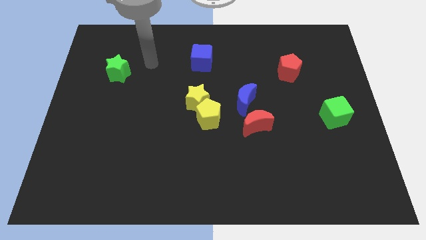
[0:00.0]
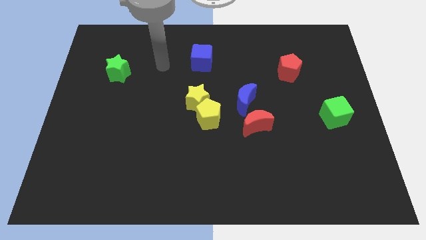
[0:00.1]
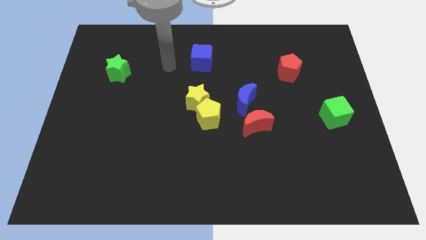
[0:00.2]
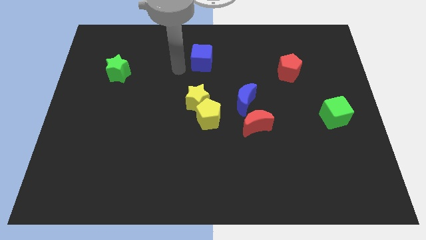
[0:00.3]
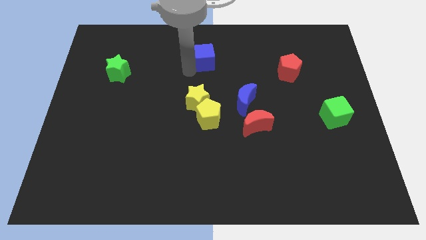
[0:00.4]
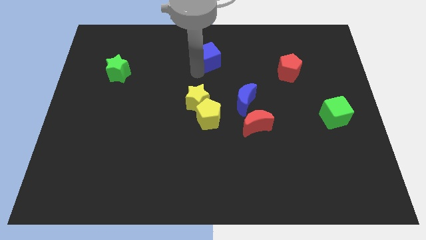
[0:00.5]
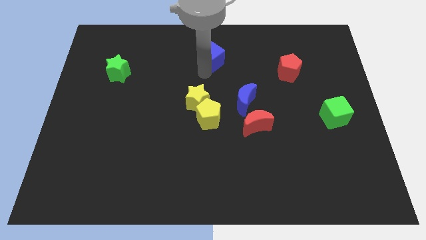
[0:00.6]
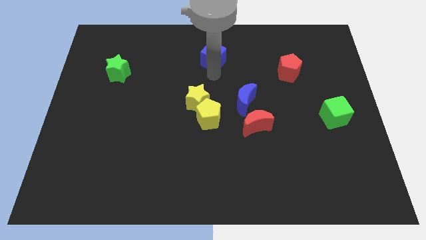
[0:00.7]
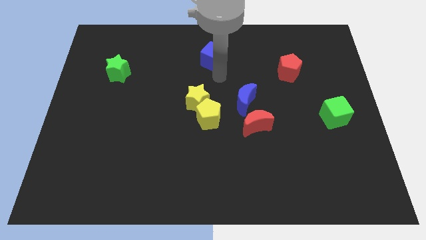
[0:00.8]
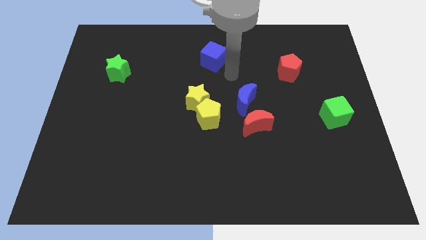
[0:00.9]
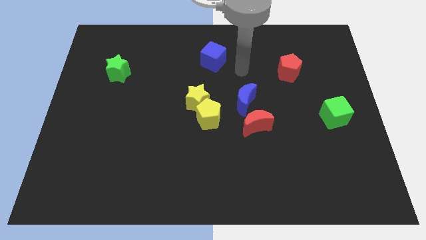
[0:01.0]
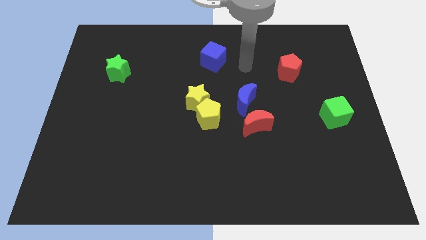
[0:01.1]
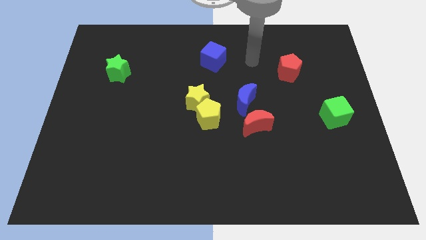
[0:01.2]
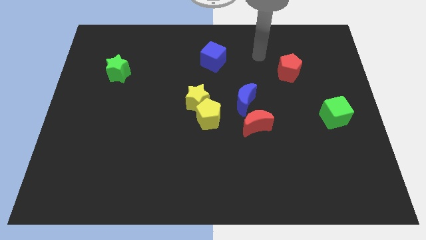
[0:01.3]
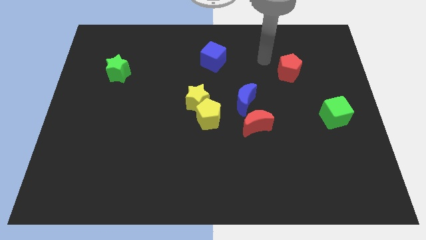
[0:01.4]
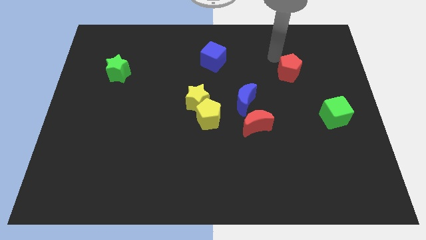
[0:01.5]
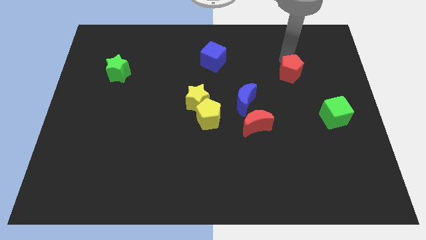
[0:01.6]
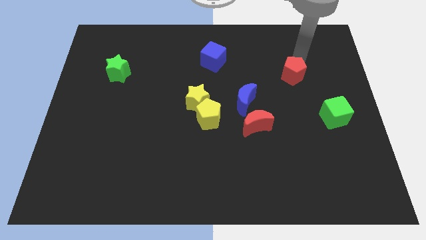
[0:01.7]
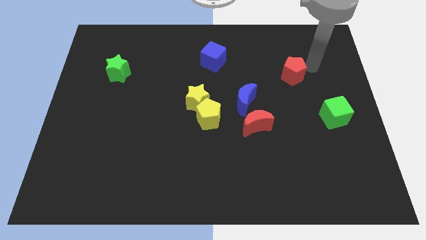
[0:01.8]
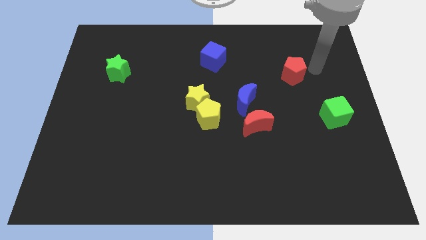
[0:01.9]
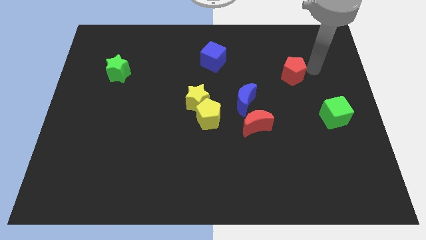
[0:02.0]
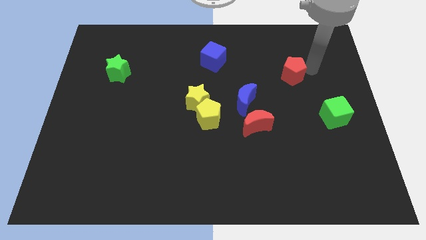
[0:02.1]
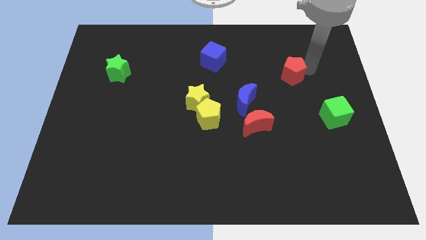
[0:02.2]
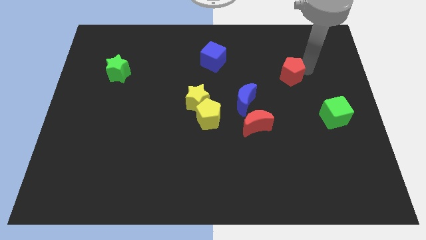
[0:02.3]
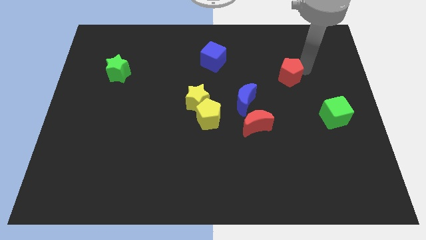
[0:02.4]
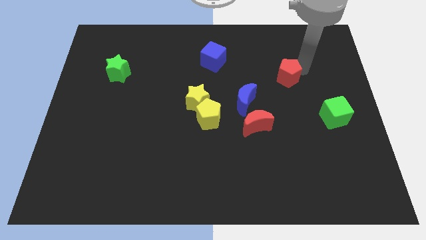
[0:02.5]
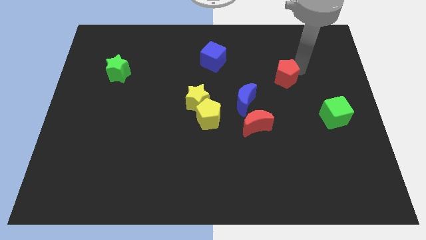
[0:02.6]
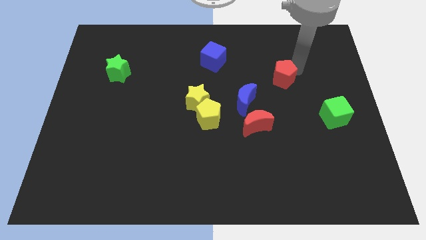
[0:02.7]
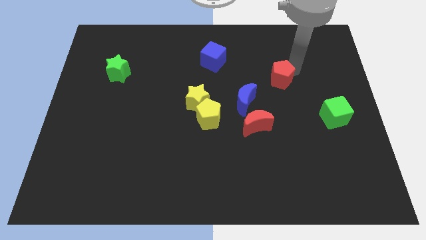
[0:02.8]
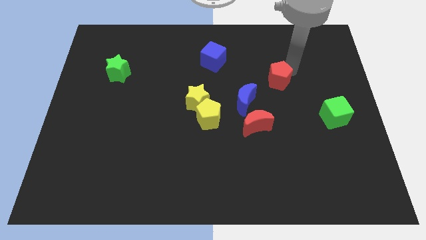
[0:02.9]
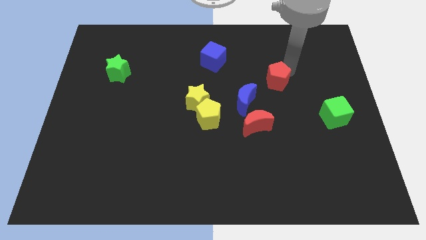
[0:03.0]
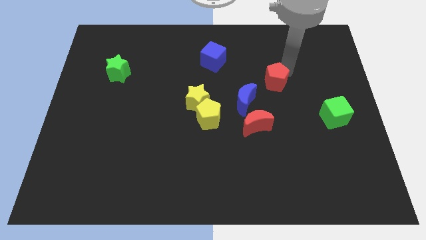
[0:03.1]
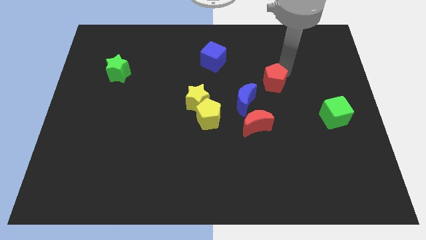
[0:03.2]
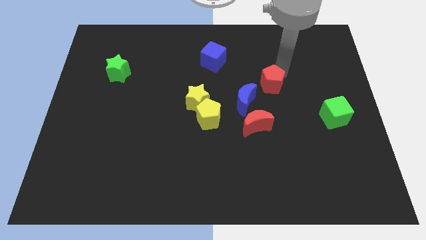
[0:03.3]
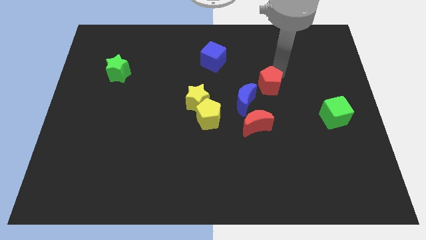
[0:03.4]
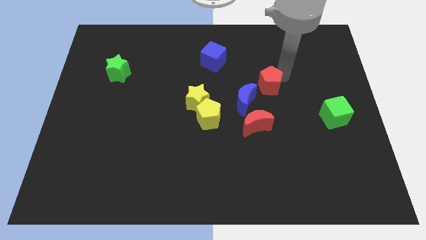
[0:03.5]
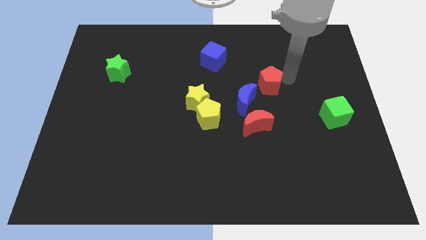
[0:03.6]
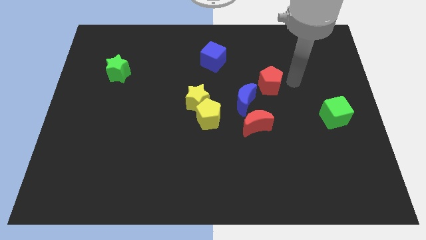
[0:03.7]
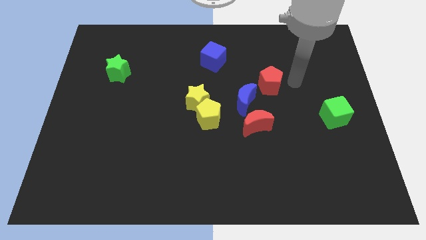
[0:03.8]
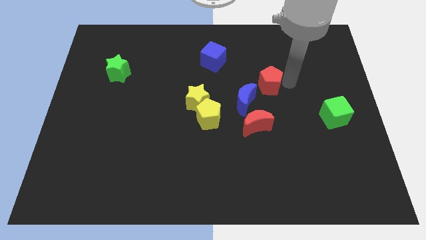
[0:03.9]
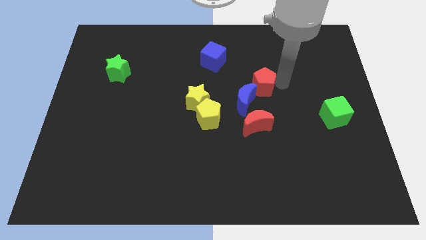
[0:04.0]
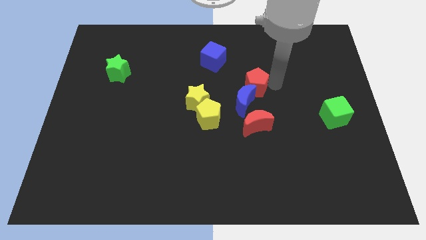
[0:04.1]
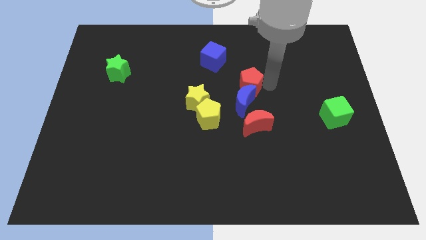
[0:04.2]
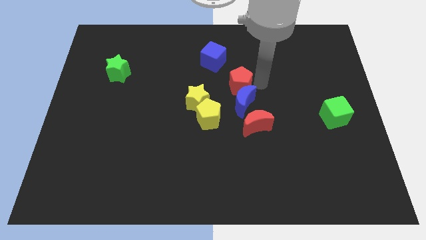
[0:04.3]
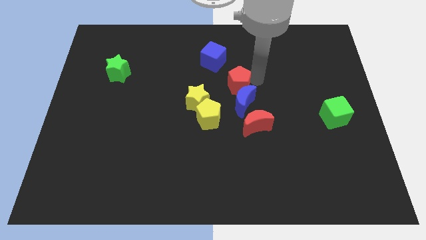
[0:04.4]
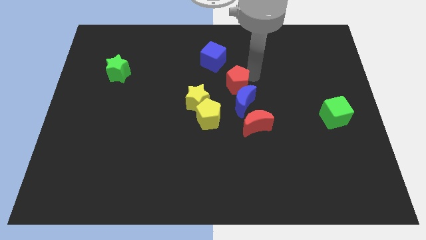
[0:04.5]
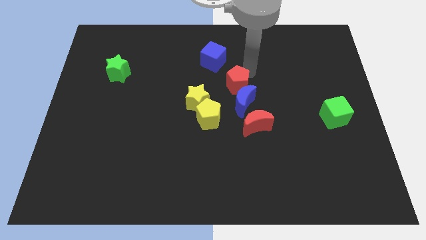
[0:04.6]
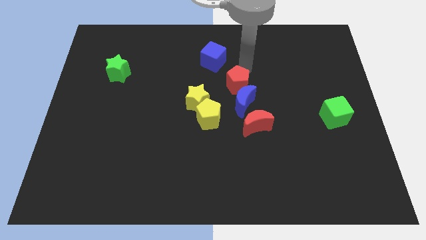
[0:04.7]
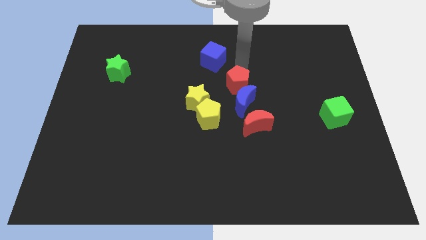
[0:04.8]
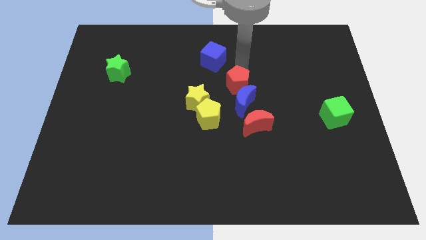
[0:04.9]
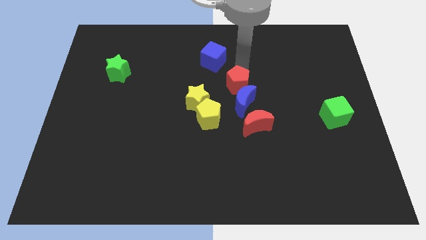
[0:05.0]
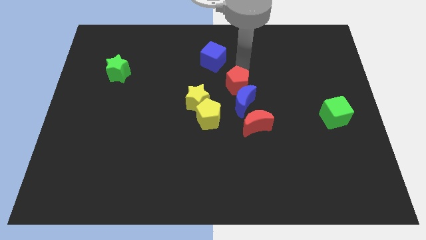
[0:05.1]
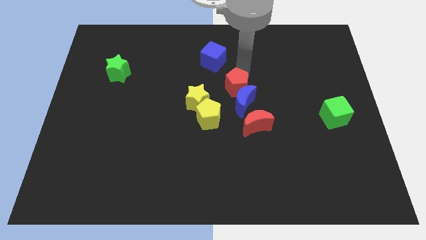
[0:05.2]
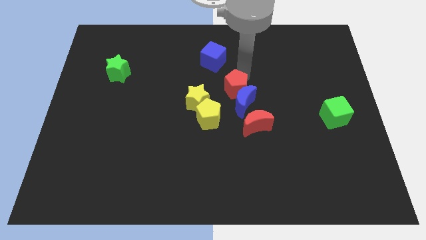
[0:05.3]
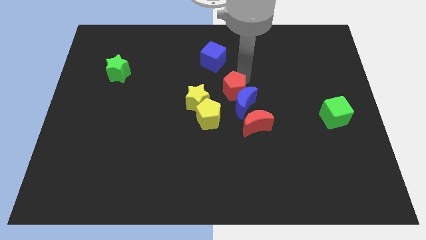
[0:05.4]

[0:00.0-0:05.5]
put the red pentagon to the top left side of the red moon

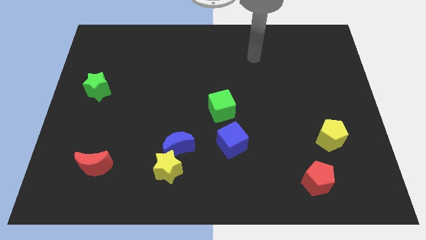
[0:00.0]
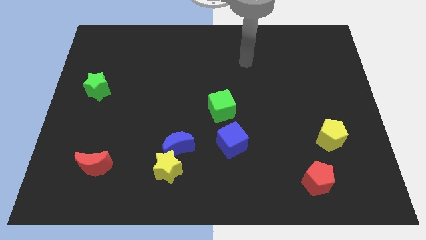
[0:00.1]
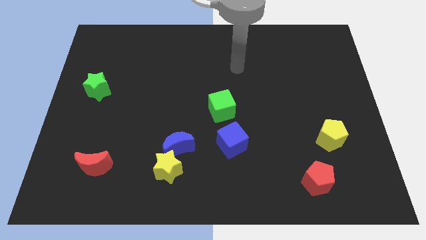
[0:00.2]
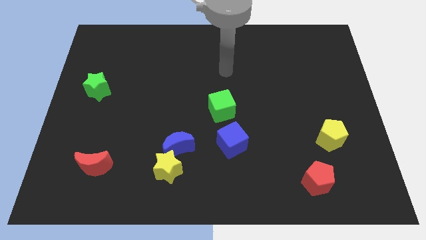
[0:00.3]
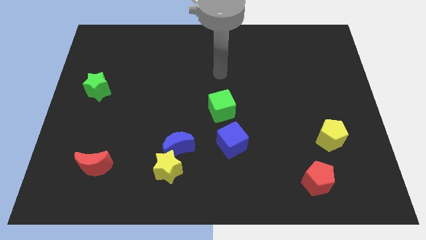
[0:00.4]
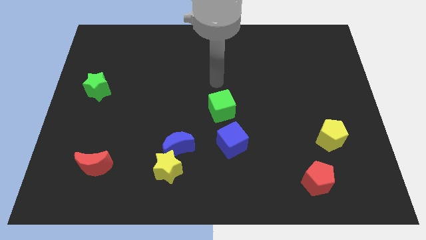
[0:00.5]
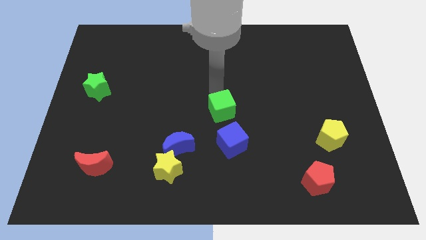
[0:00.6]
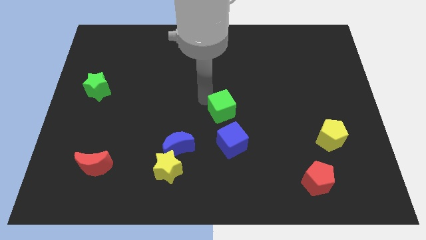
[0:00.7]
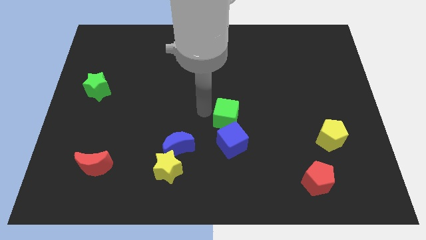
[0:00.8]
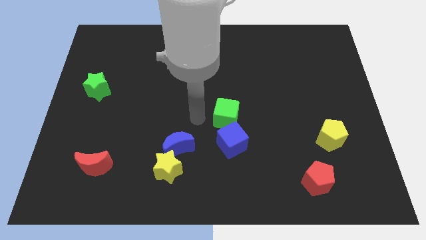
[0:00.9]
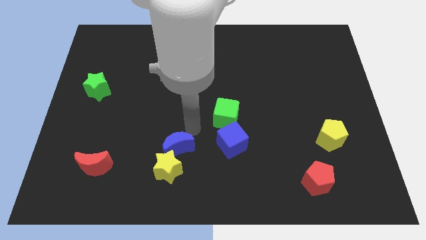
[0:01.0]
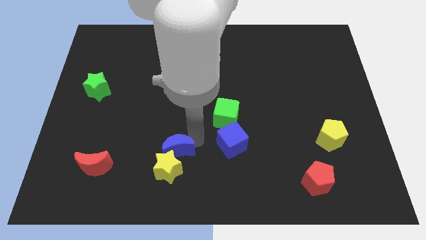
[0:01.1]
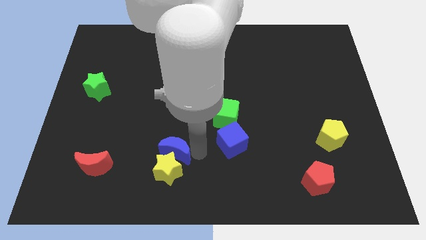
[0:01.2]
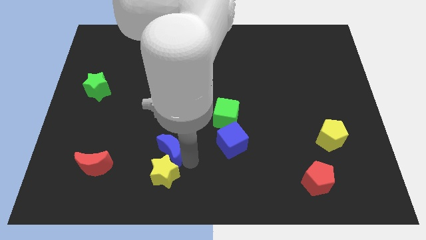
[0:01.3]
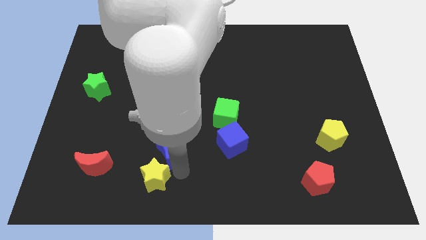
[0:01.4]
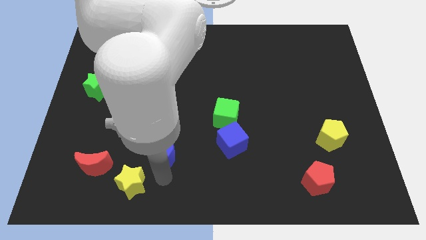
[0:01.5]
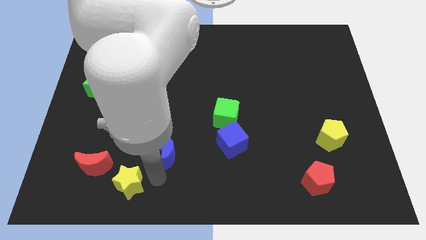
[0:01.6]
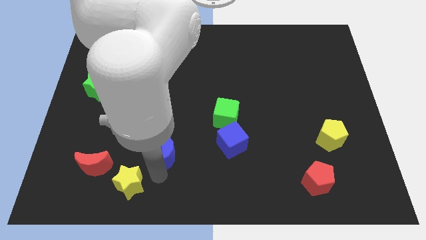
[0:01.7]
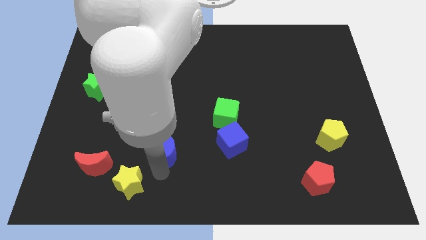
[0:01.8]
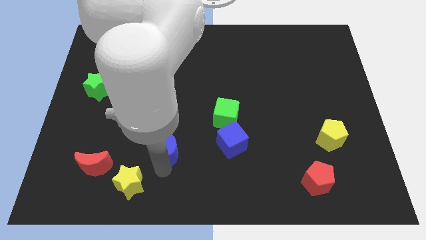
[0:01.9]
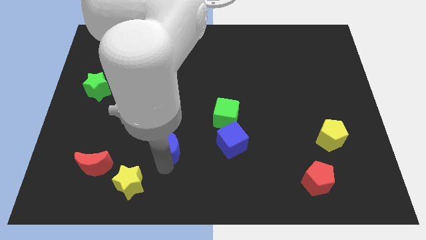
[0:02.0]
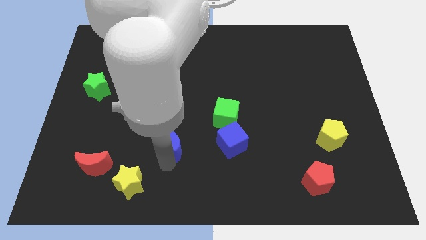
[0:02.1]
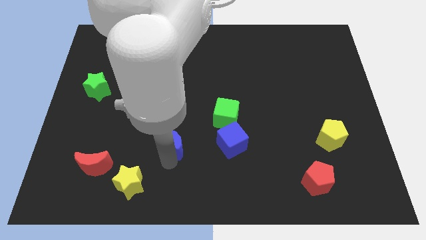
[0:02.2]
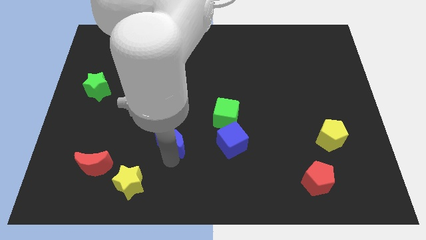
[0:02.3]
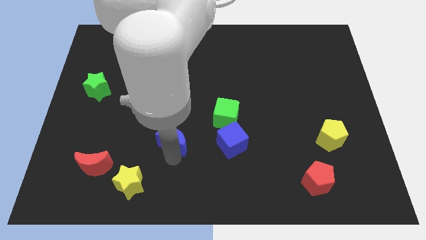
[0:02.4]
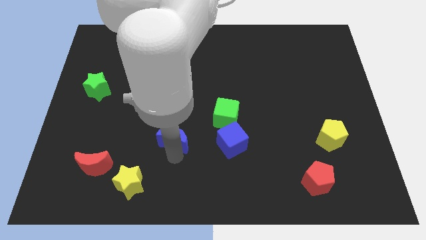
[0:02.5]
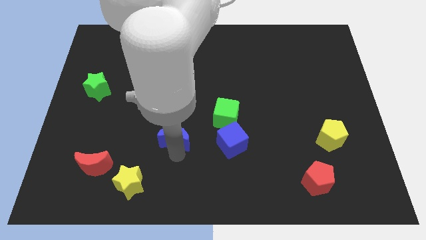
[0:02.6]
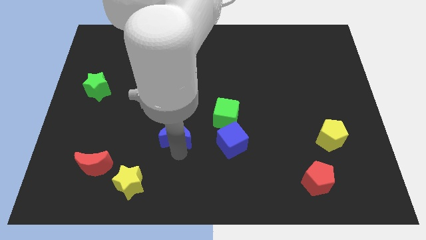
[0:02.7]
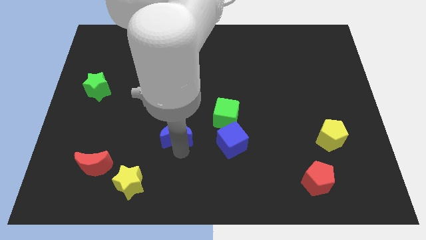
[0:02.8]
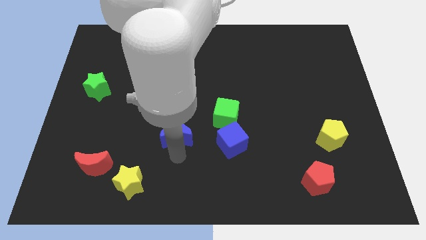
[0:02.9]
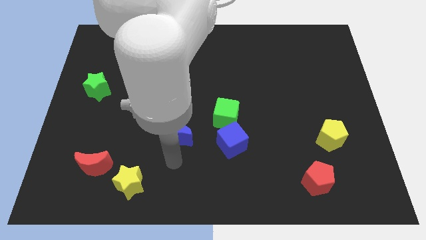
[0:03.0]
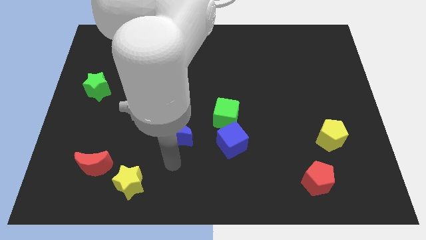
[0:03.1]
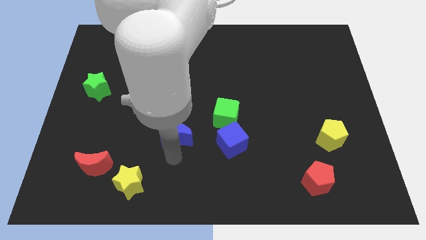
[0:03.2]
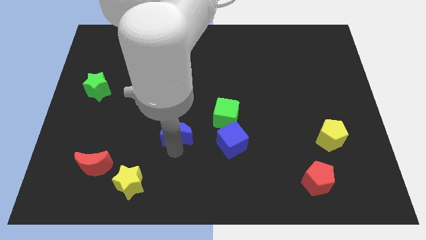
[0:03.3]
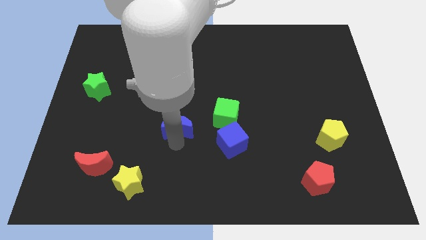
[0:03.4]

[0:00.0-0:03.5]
put the blue moon left of the green cube
